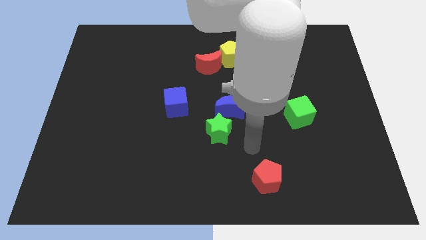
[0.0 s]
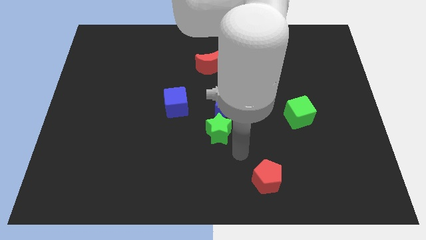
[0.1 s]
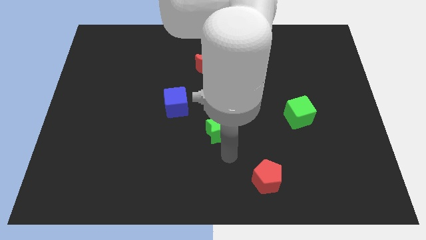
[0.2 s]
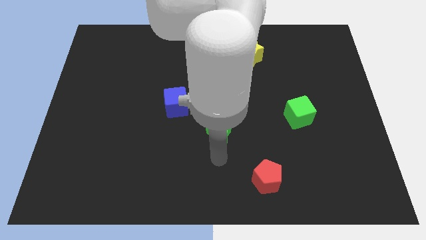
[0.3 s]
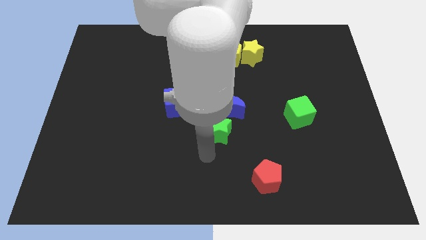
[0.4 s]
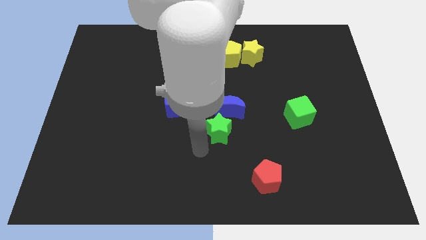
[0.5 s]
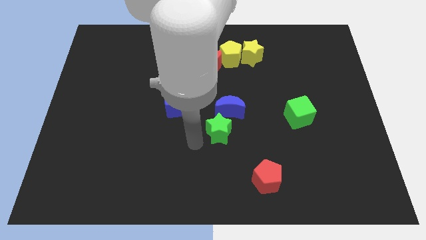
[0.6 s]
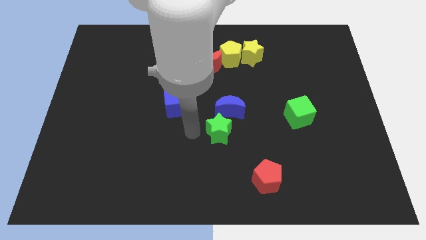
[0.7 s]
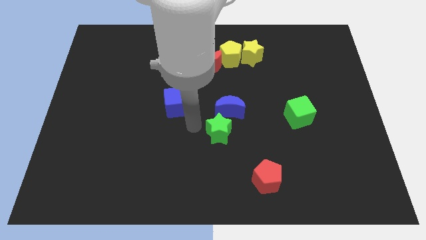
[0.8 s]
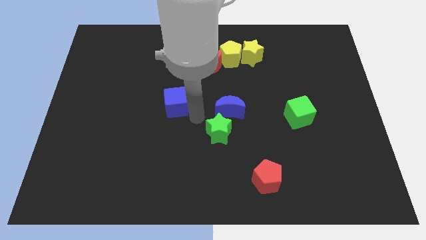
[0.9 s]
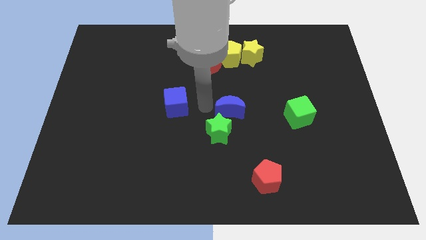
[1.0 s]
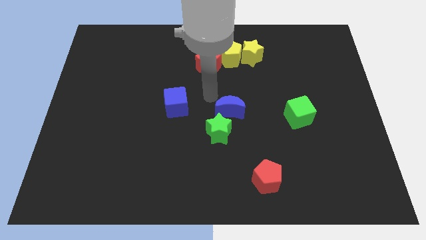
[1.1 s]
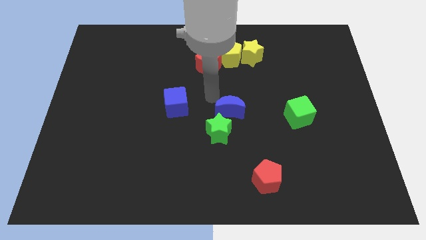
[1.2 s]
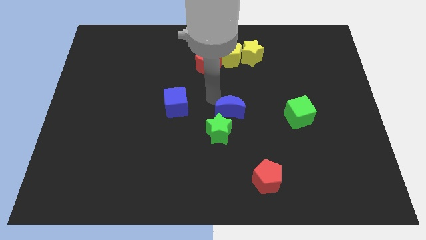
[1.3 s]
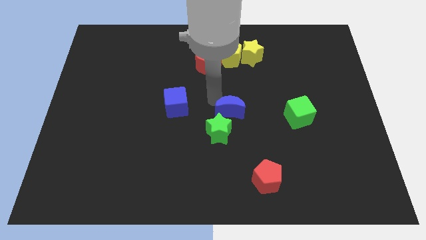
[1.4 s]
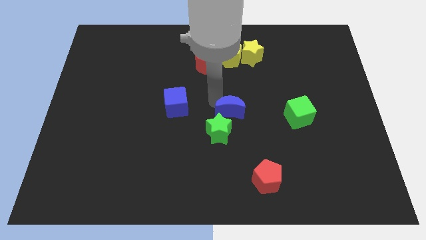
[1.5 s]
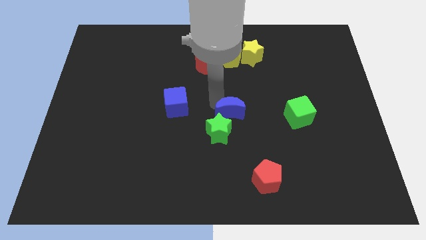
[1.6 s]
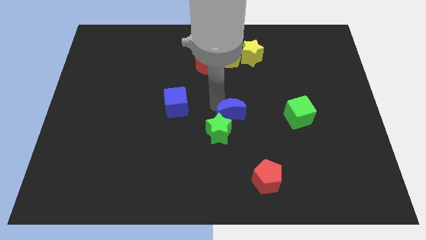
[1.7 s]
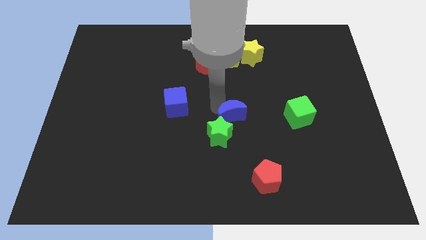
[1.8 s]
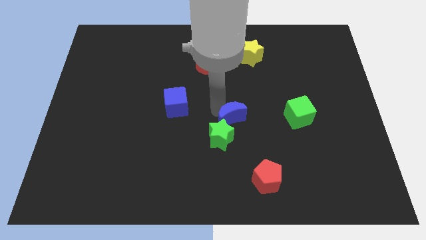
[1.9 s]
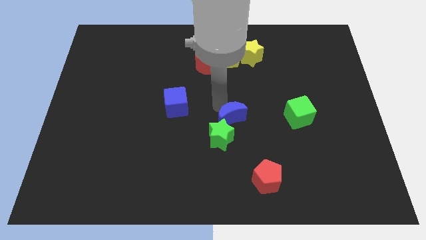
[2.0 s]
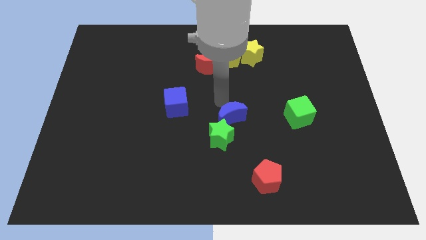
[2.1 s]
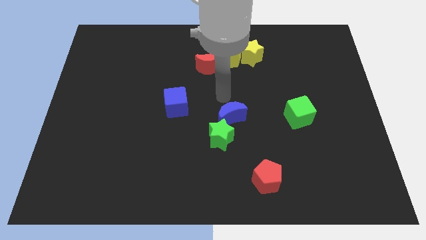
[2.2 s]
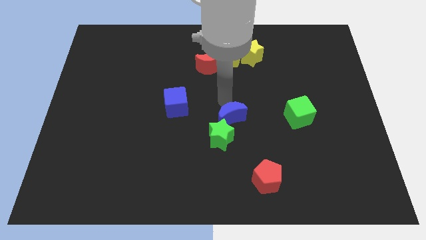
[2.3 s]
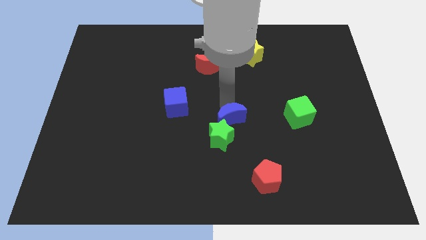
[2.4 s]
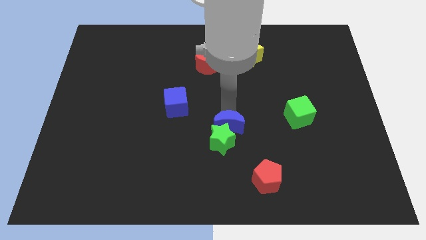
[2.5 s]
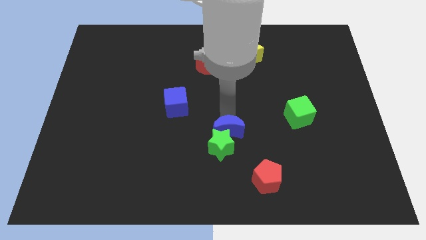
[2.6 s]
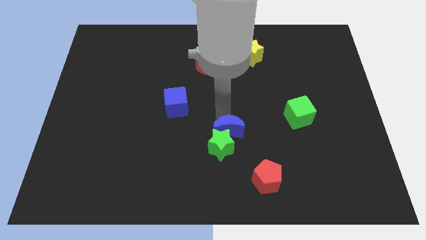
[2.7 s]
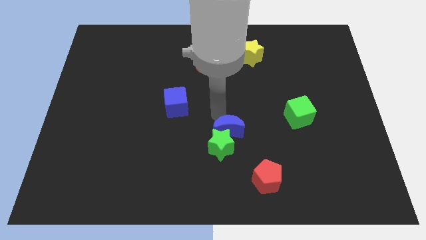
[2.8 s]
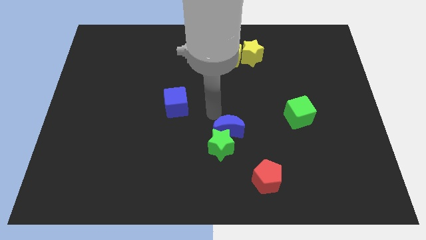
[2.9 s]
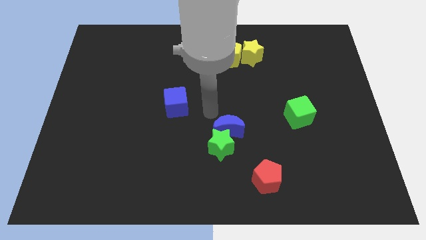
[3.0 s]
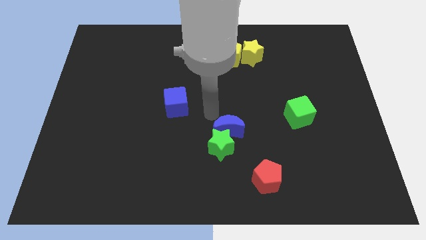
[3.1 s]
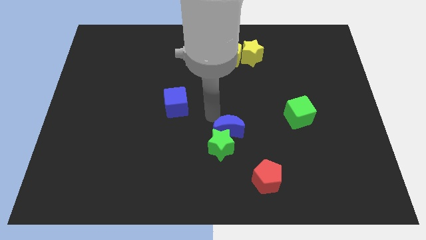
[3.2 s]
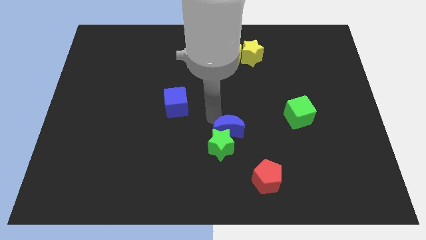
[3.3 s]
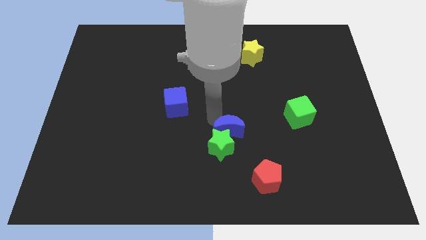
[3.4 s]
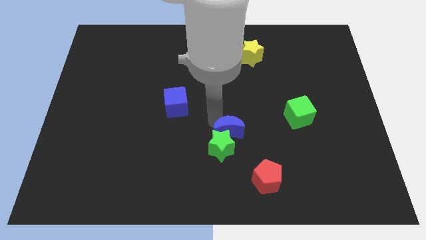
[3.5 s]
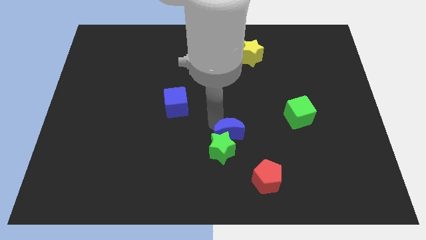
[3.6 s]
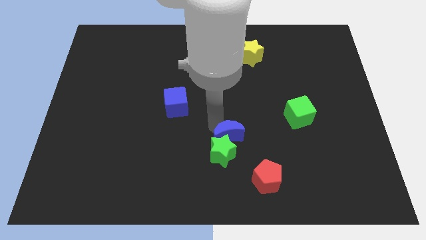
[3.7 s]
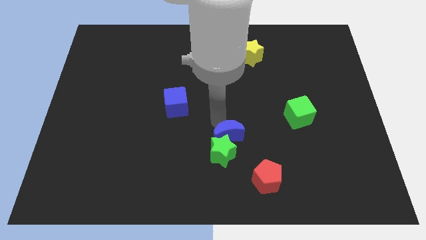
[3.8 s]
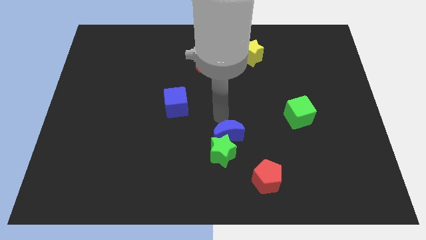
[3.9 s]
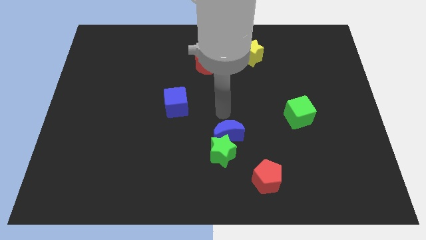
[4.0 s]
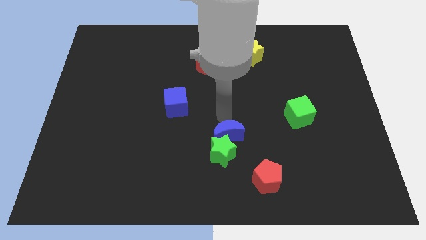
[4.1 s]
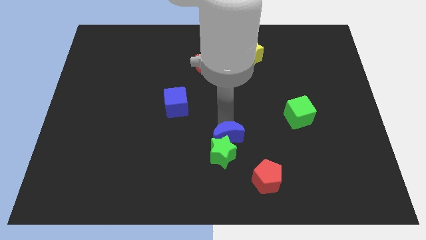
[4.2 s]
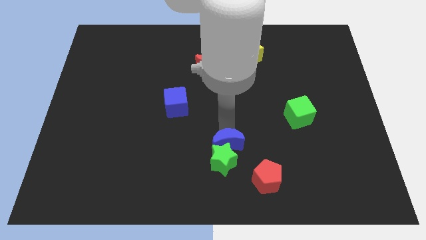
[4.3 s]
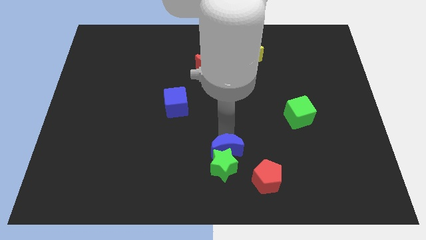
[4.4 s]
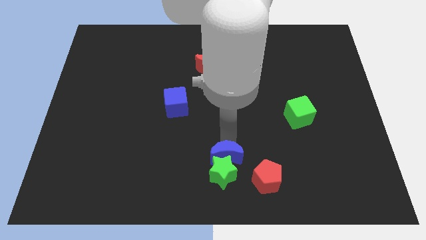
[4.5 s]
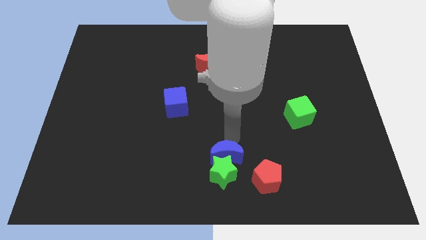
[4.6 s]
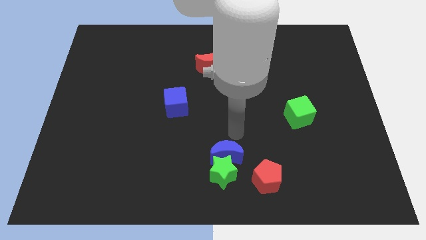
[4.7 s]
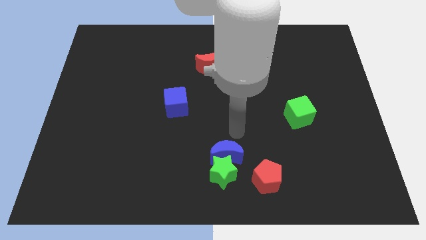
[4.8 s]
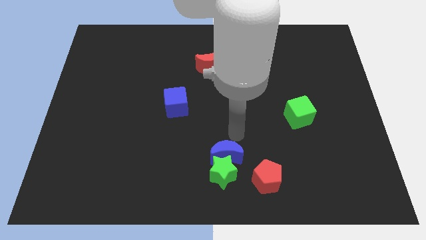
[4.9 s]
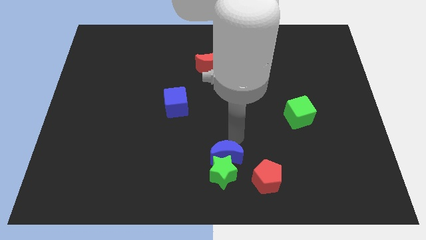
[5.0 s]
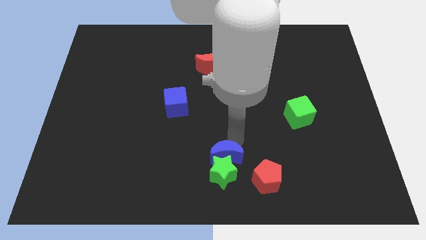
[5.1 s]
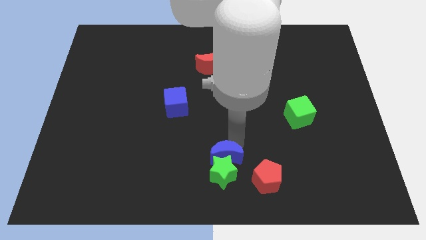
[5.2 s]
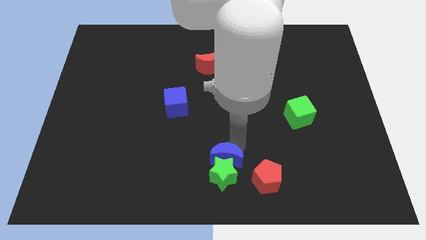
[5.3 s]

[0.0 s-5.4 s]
put the blue moon to the left of the red pentagon

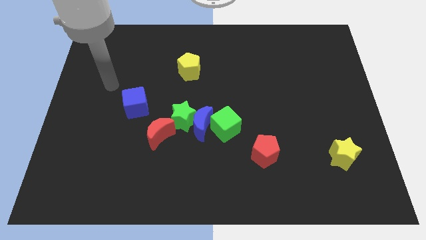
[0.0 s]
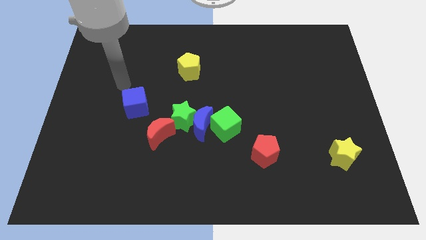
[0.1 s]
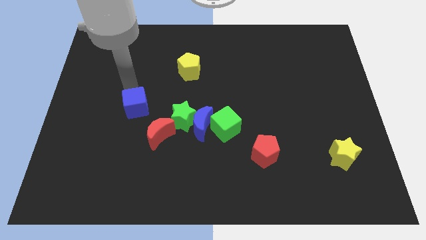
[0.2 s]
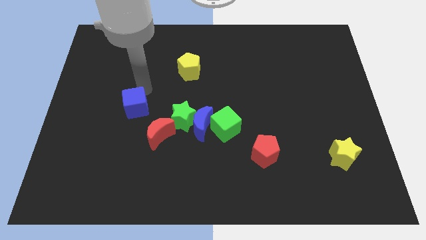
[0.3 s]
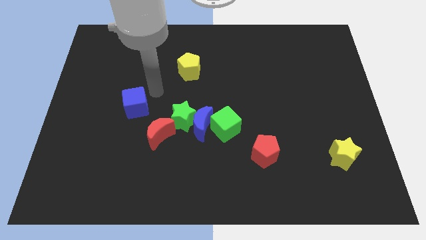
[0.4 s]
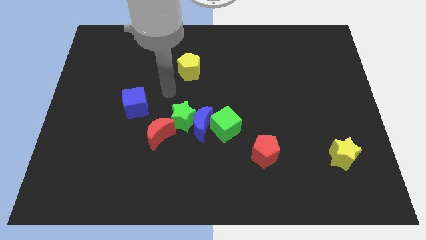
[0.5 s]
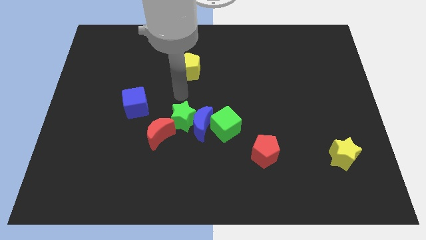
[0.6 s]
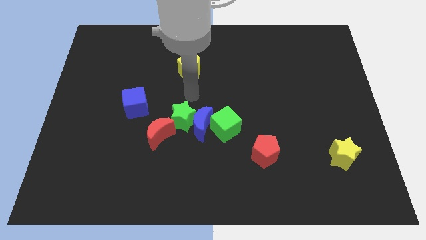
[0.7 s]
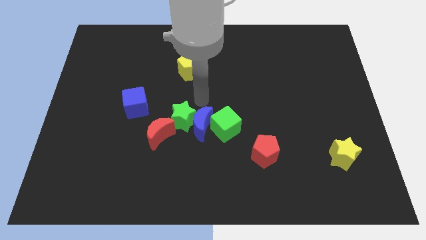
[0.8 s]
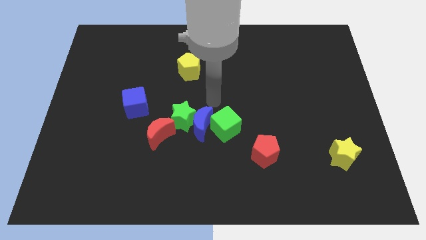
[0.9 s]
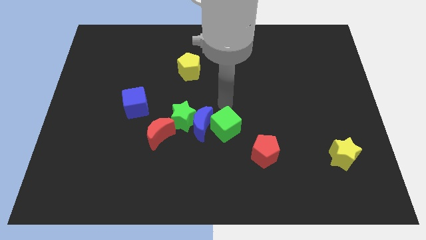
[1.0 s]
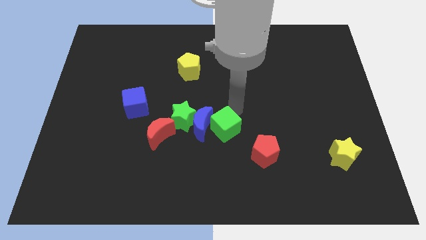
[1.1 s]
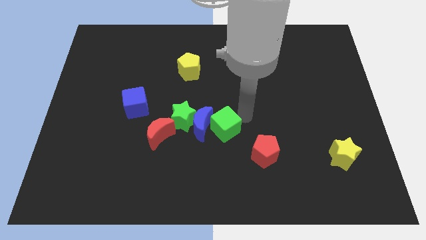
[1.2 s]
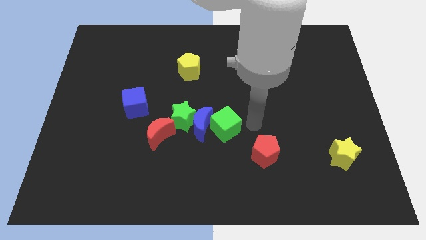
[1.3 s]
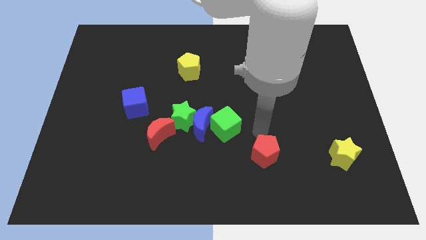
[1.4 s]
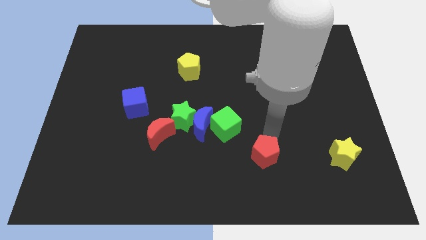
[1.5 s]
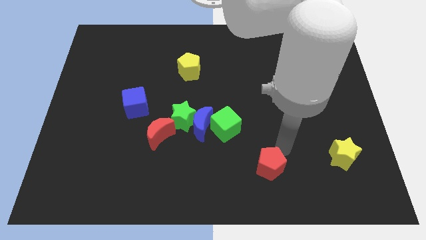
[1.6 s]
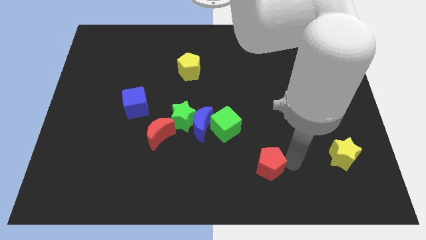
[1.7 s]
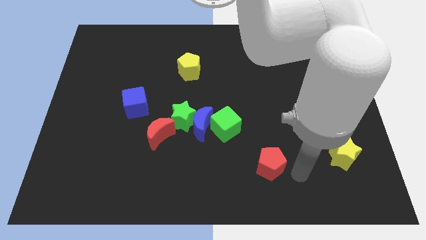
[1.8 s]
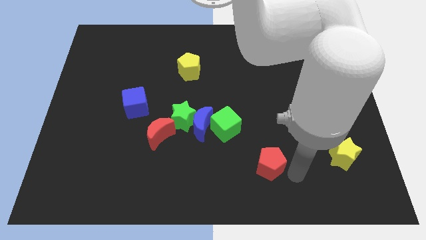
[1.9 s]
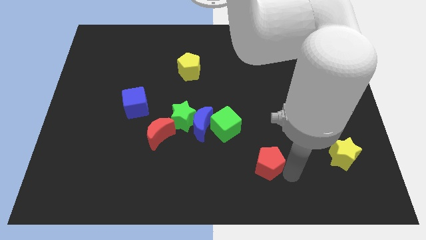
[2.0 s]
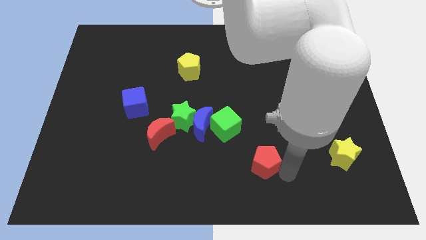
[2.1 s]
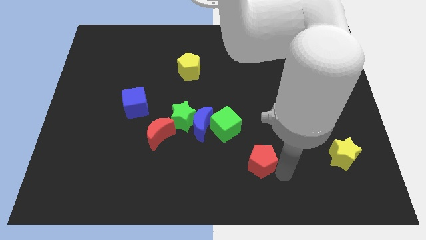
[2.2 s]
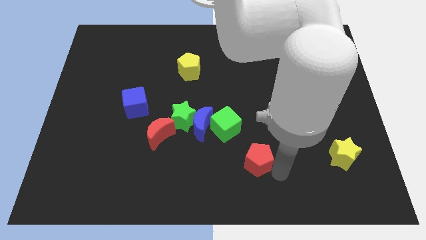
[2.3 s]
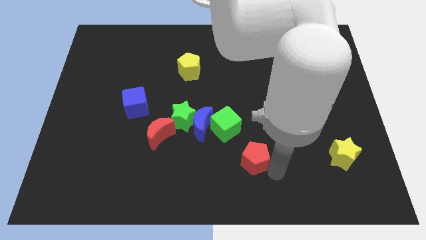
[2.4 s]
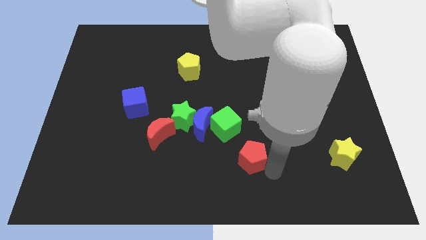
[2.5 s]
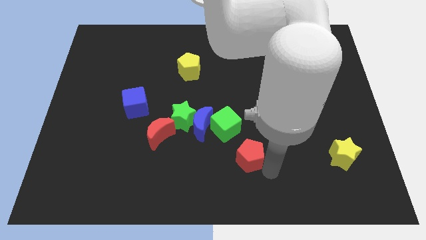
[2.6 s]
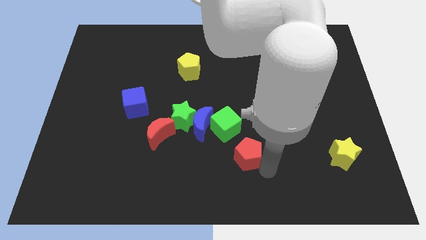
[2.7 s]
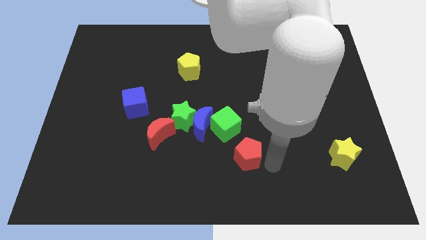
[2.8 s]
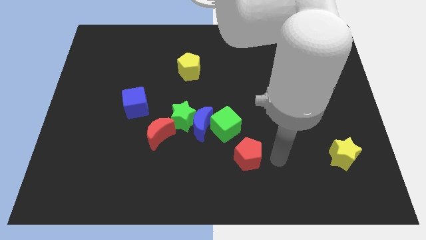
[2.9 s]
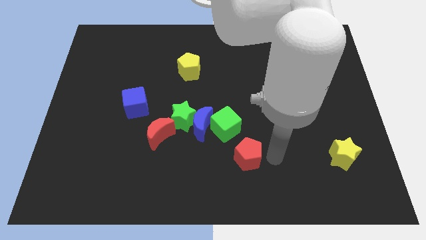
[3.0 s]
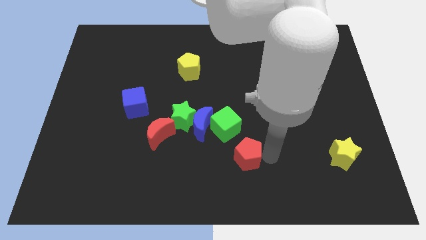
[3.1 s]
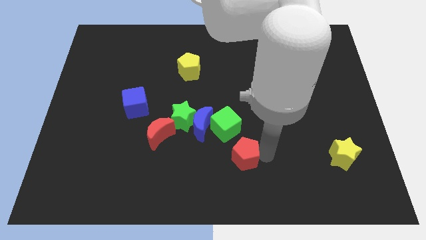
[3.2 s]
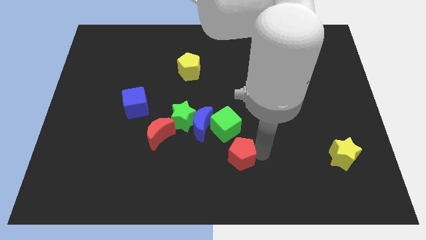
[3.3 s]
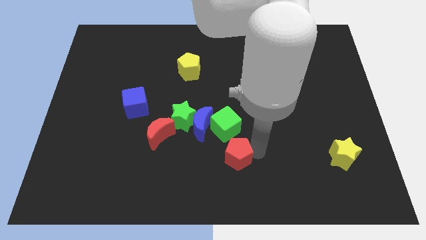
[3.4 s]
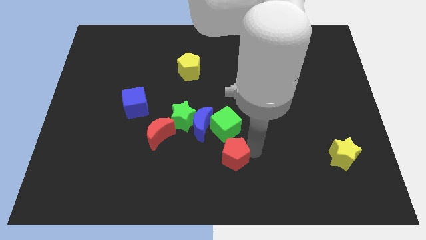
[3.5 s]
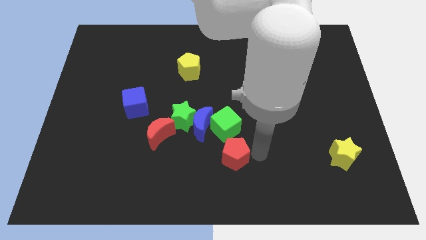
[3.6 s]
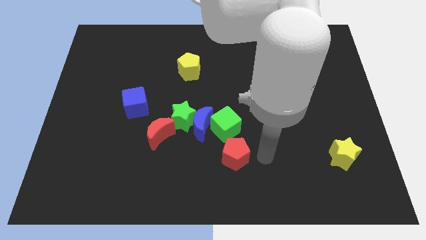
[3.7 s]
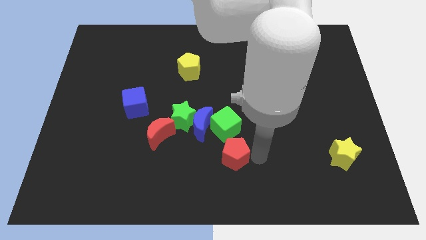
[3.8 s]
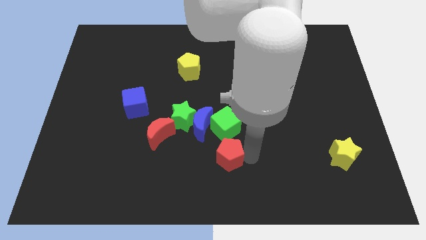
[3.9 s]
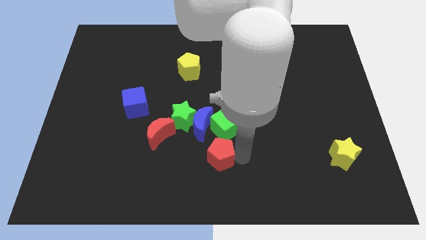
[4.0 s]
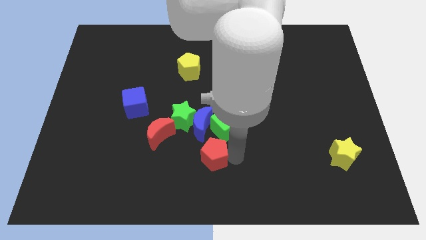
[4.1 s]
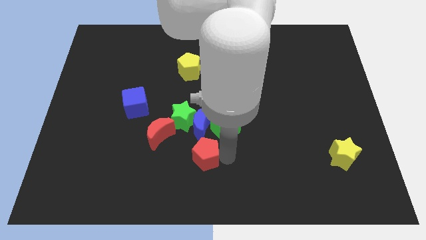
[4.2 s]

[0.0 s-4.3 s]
put the red pentagon diagonally down and to the right of the red moon
